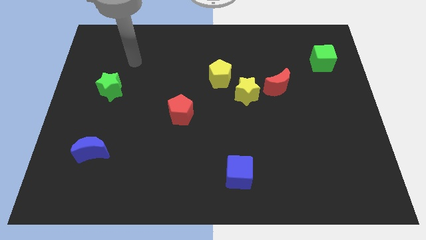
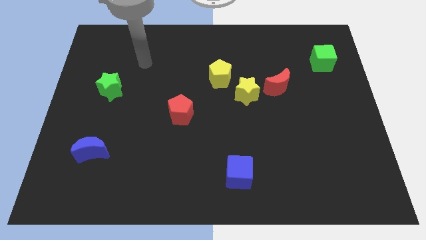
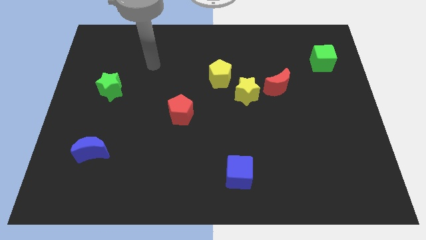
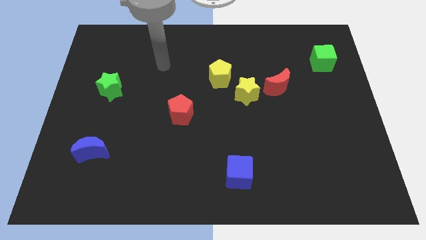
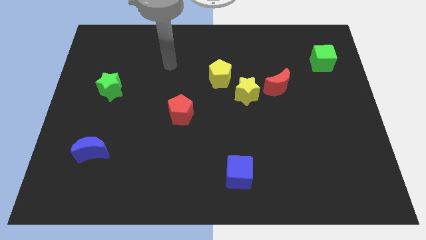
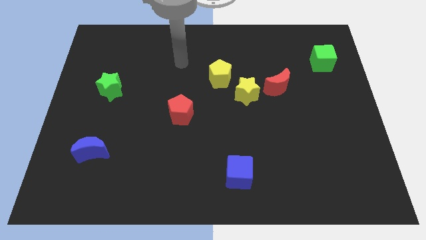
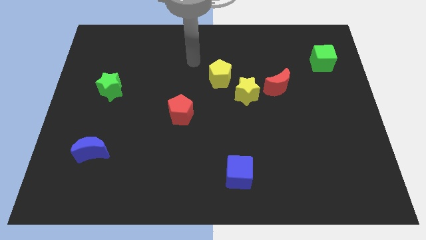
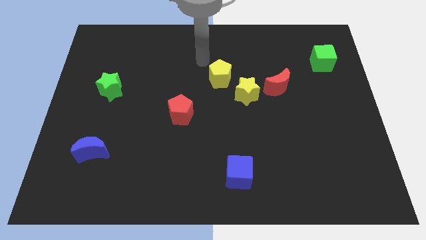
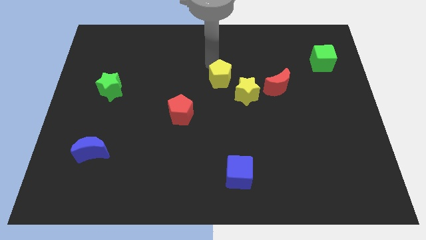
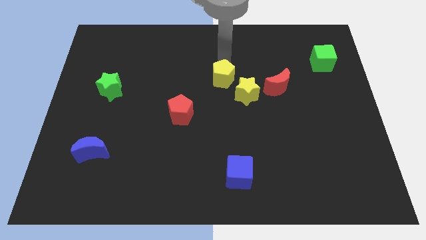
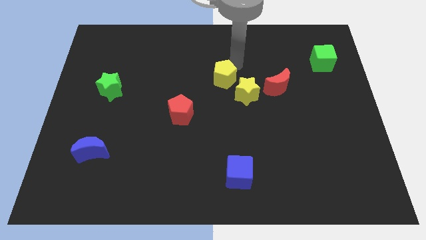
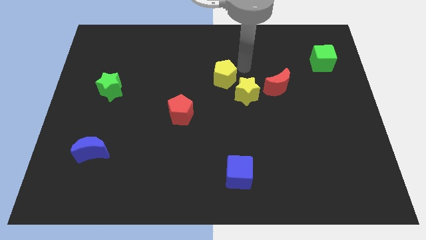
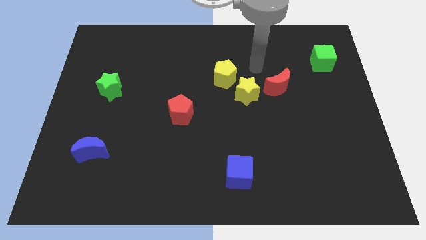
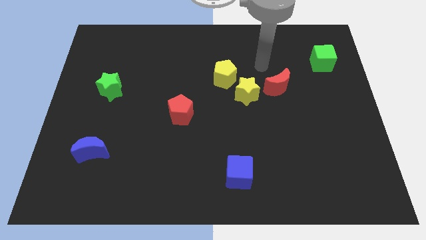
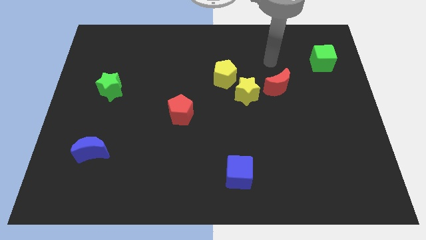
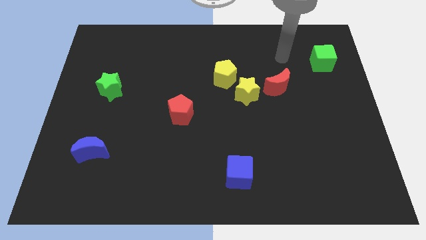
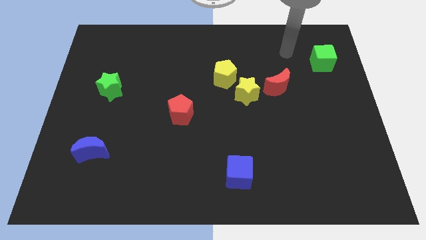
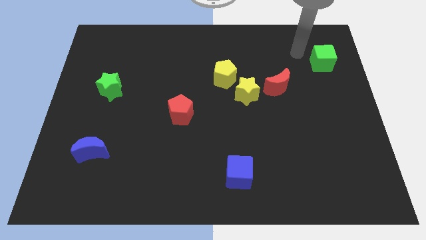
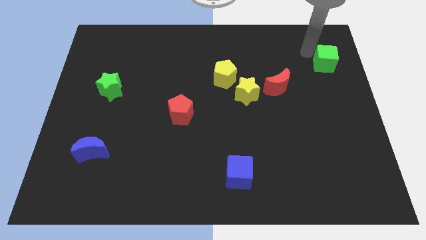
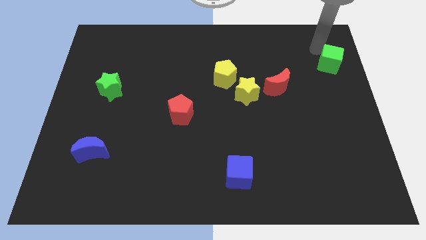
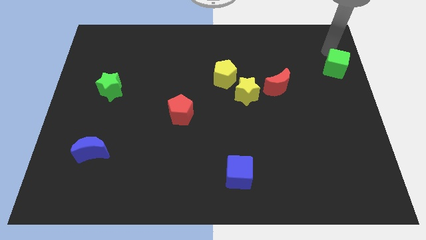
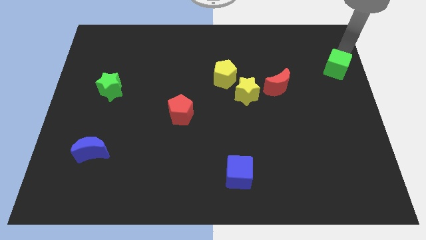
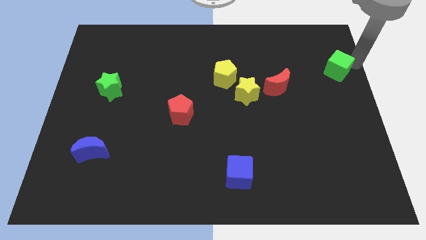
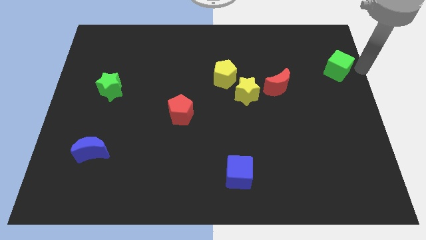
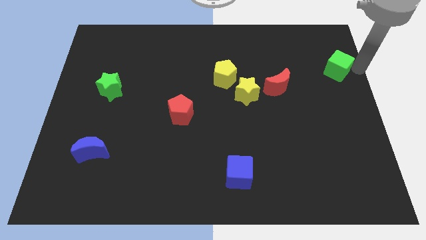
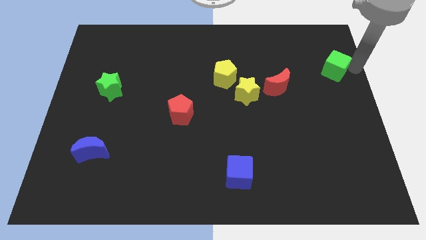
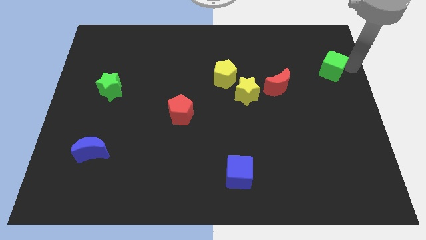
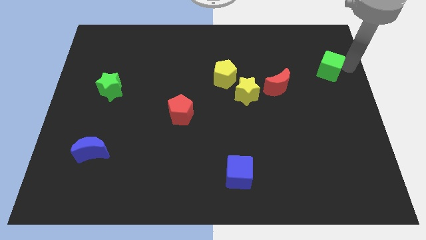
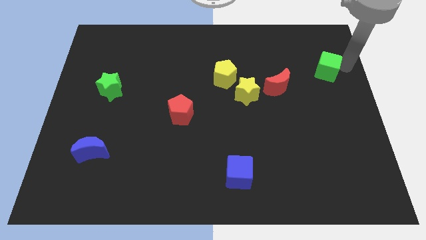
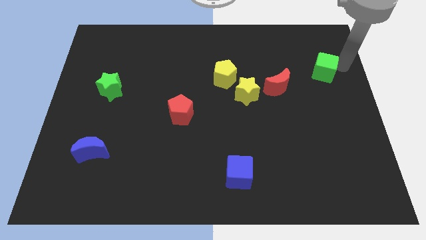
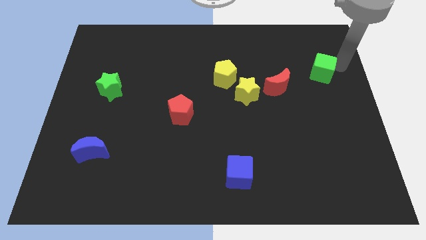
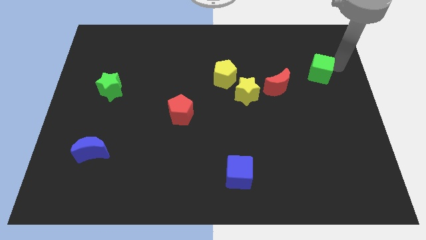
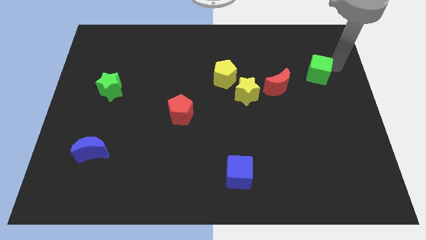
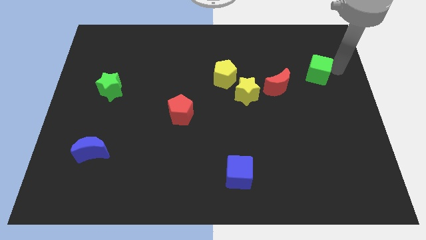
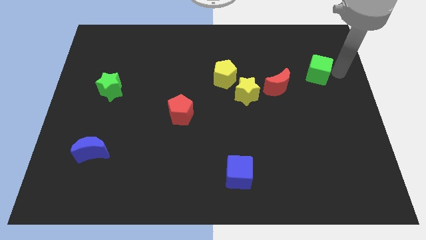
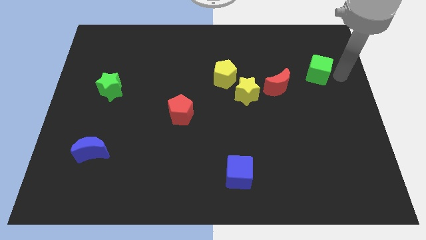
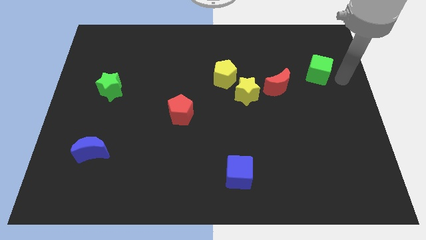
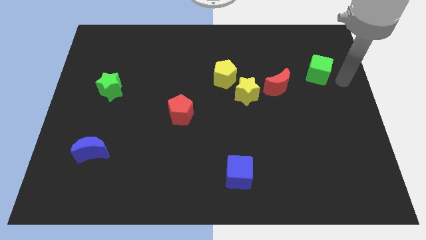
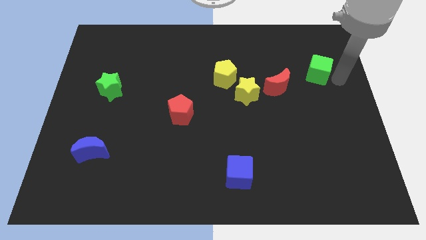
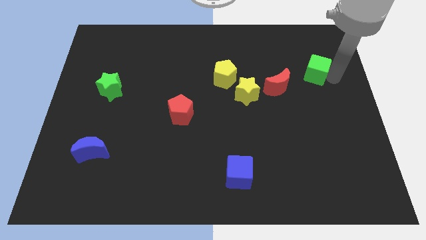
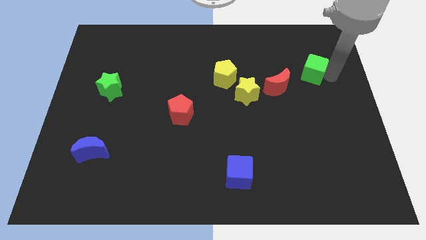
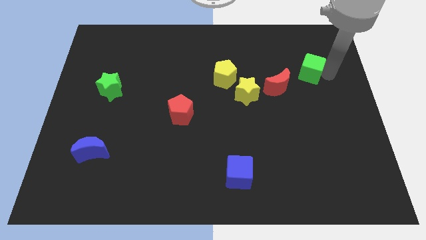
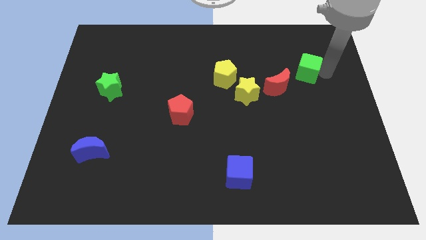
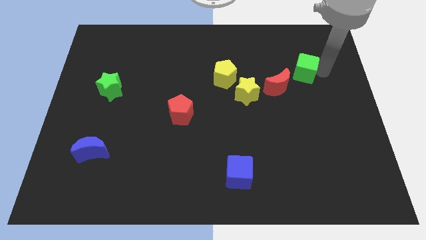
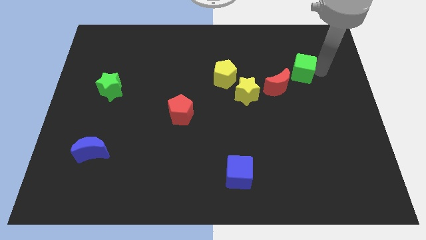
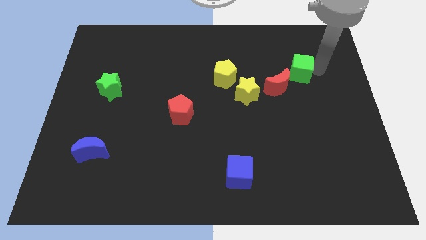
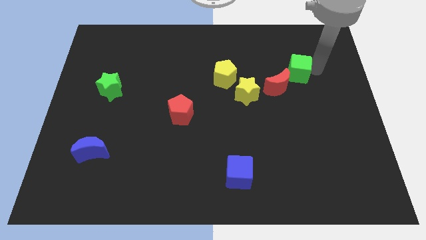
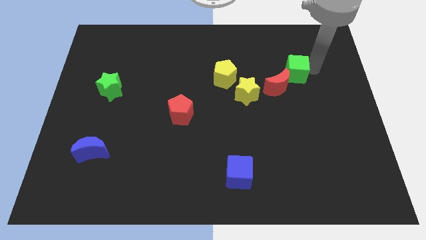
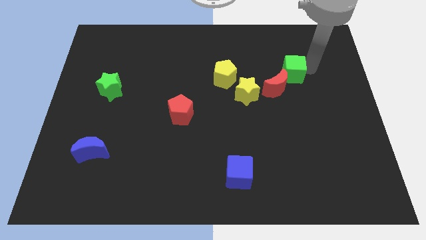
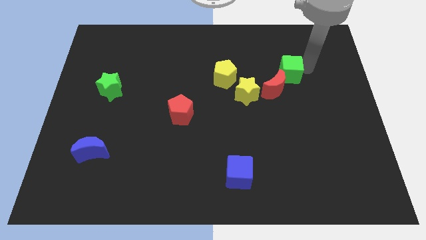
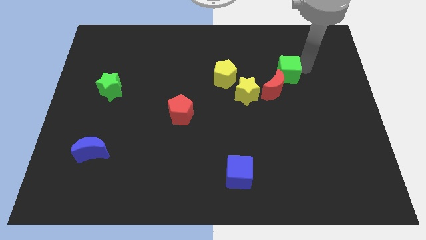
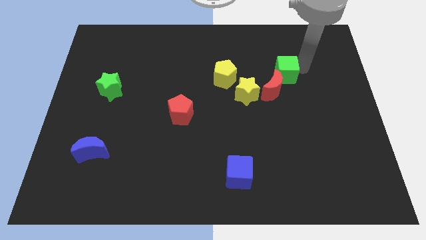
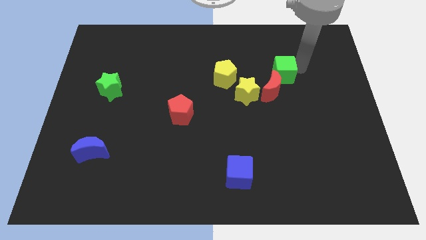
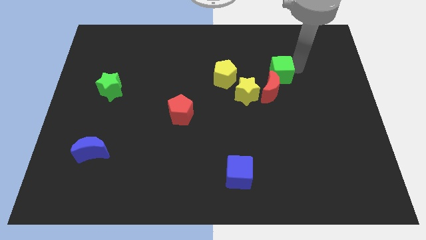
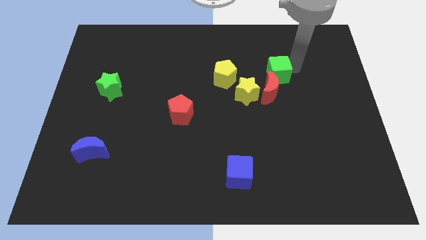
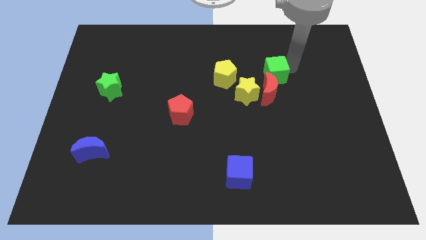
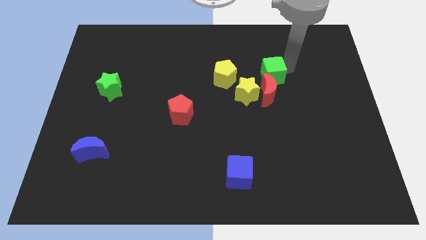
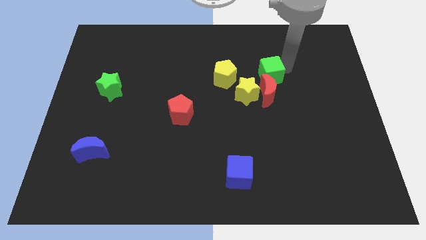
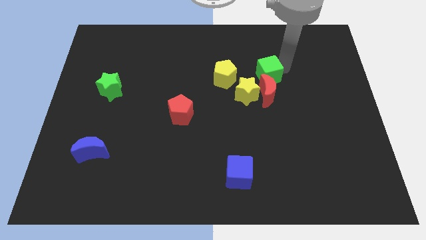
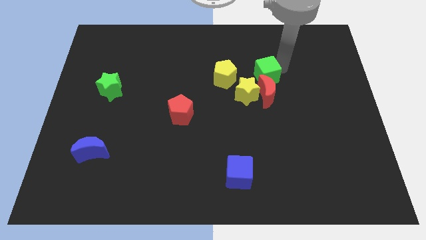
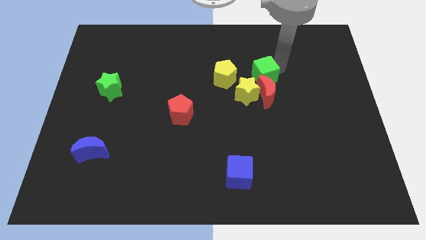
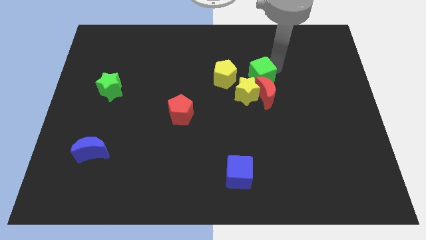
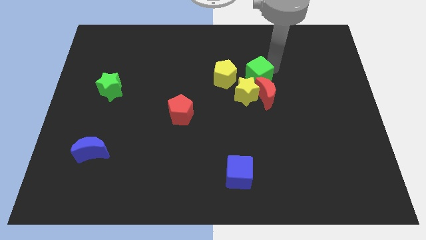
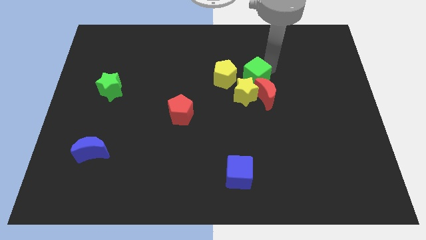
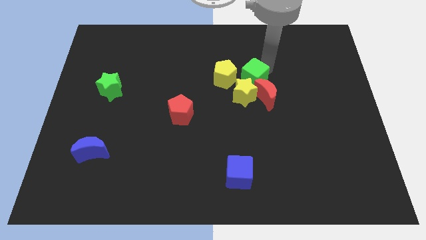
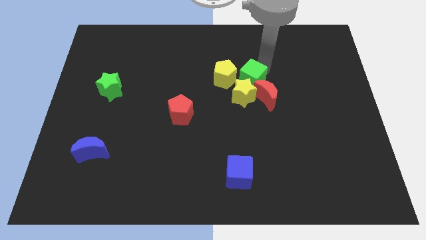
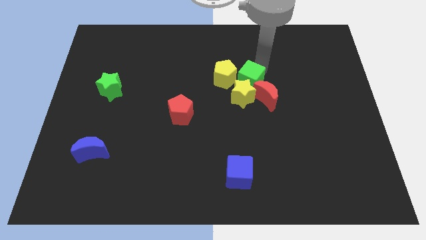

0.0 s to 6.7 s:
move the green cube next to the yellow star
